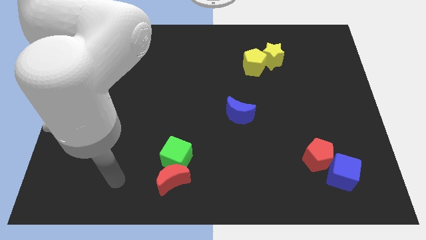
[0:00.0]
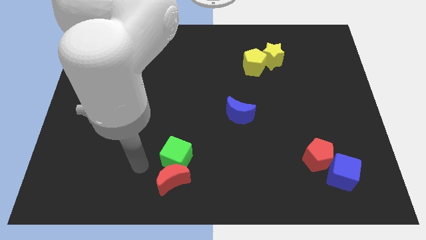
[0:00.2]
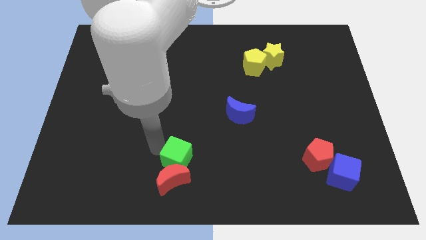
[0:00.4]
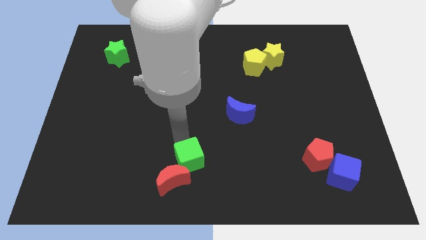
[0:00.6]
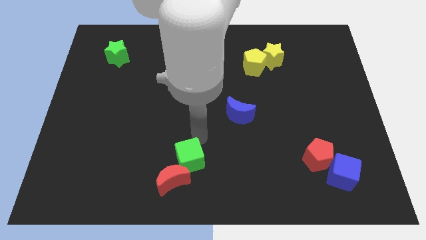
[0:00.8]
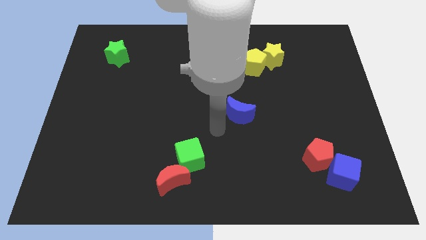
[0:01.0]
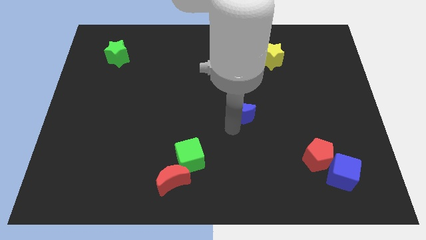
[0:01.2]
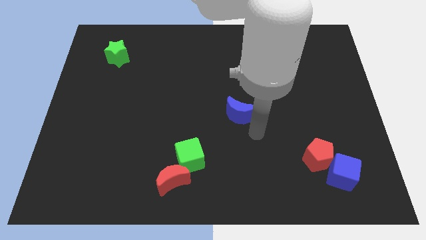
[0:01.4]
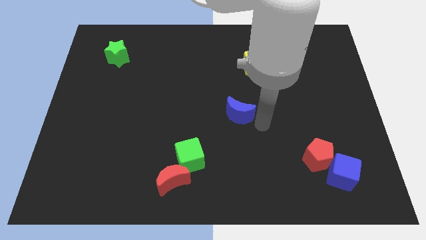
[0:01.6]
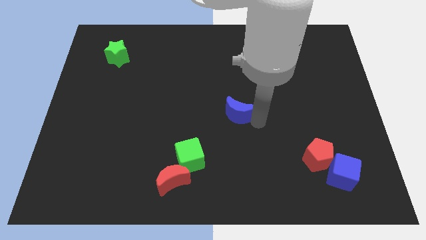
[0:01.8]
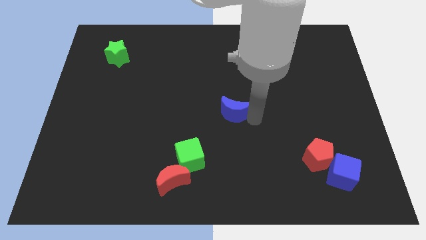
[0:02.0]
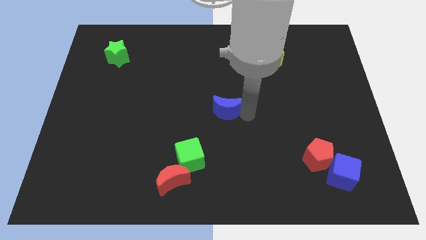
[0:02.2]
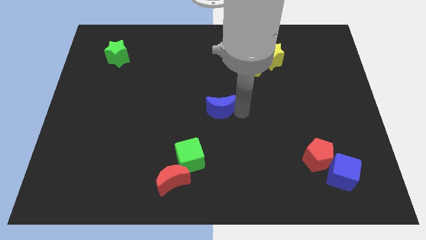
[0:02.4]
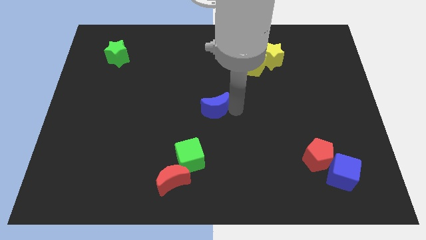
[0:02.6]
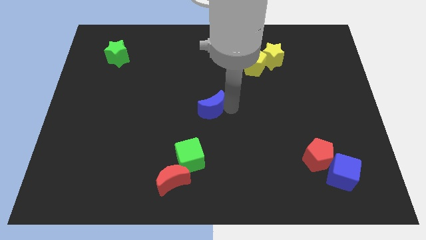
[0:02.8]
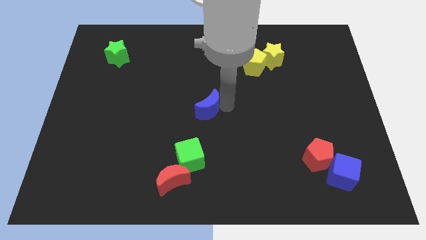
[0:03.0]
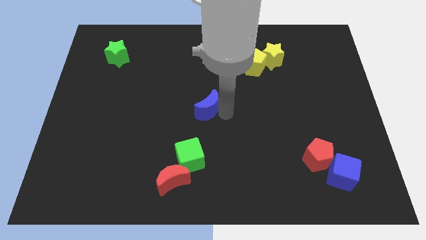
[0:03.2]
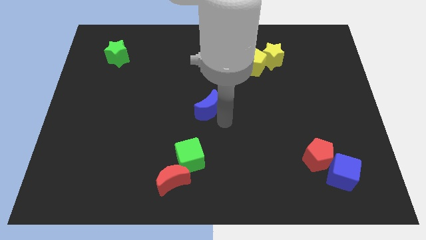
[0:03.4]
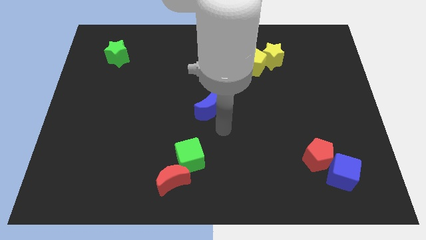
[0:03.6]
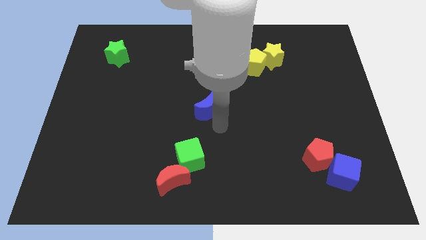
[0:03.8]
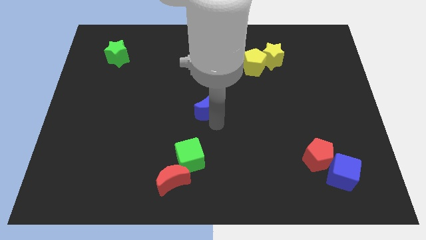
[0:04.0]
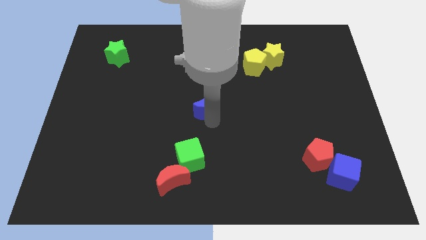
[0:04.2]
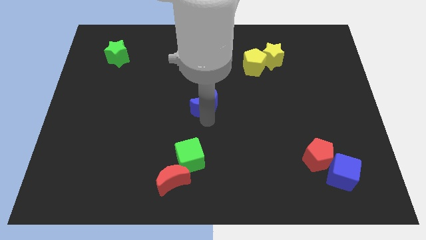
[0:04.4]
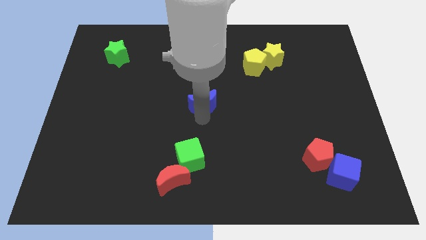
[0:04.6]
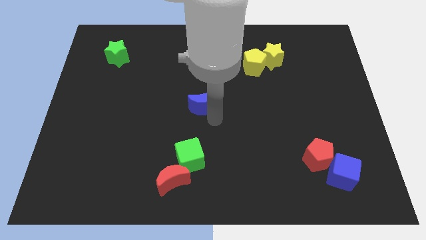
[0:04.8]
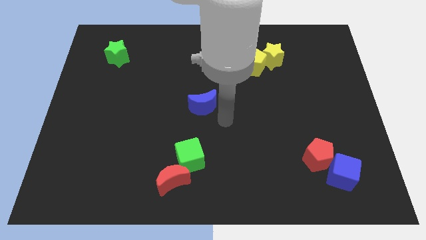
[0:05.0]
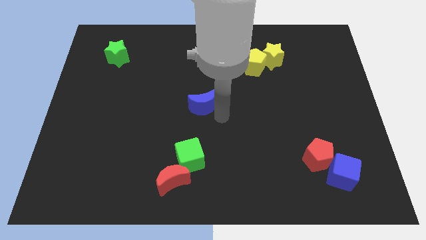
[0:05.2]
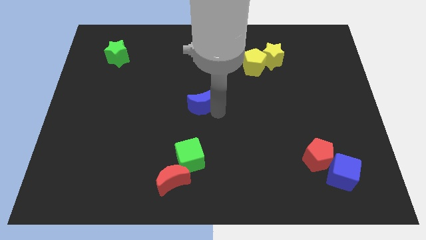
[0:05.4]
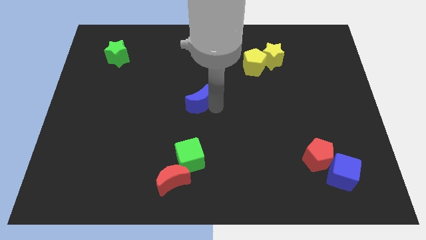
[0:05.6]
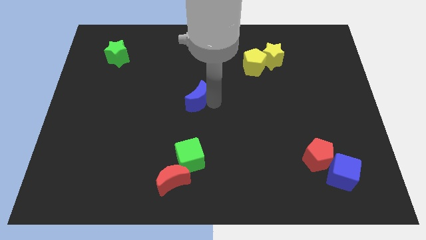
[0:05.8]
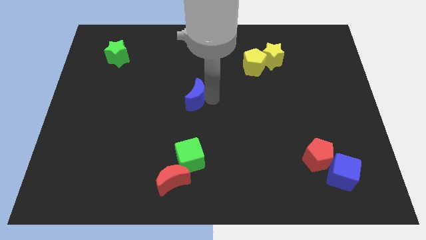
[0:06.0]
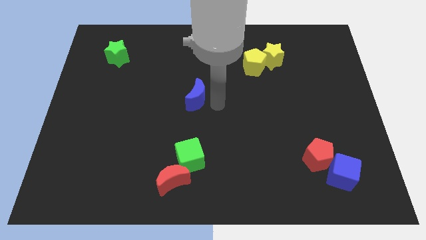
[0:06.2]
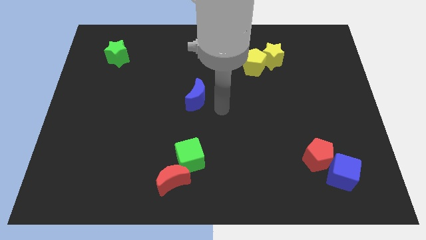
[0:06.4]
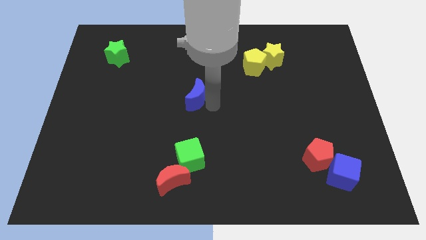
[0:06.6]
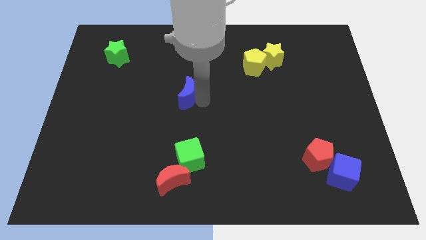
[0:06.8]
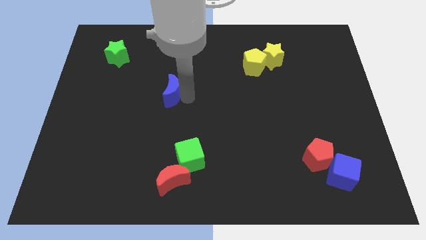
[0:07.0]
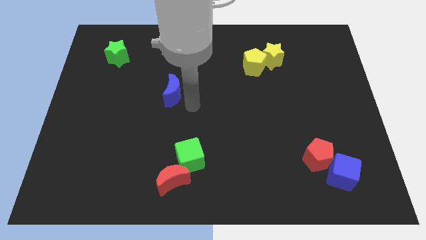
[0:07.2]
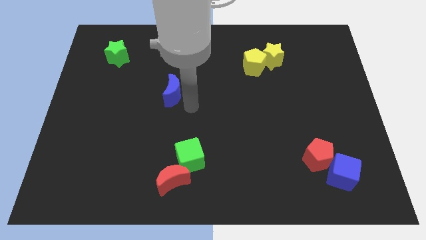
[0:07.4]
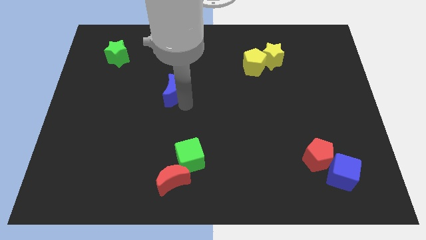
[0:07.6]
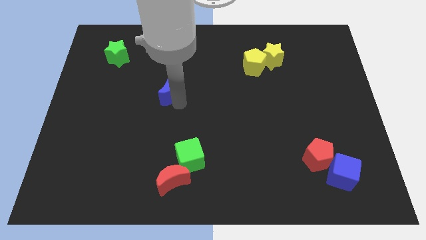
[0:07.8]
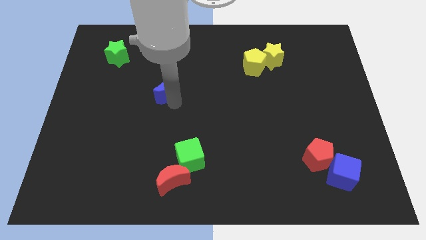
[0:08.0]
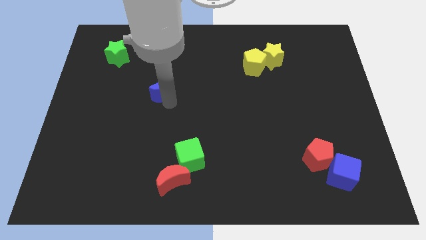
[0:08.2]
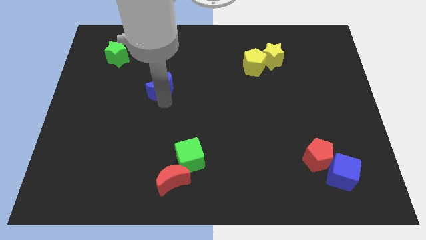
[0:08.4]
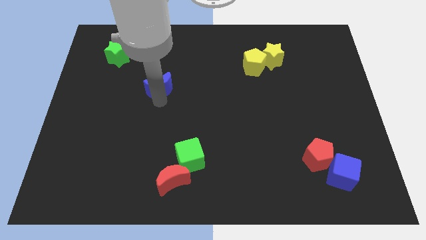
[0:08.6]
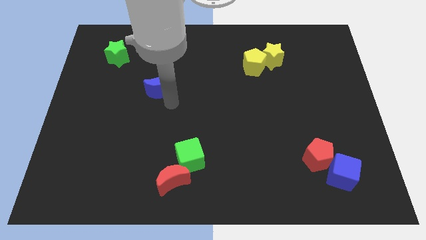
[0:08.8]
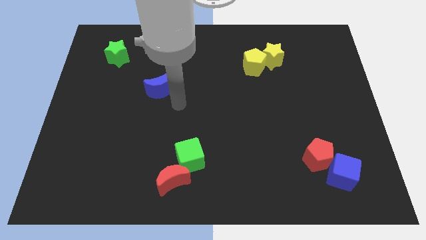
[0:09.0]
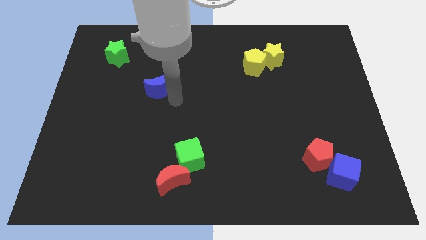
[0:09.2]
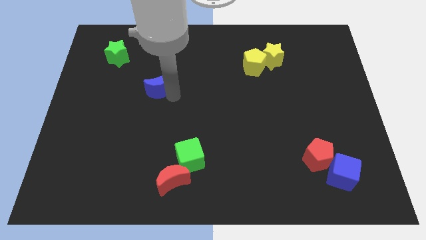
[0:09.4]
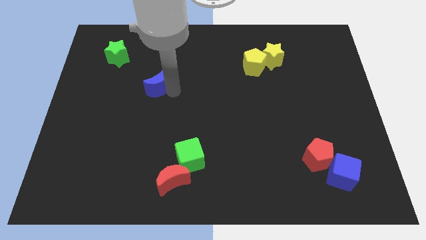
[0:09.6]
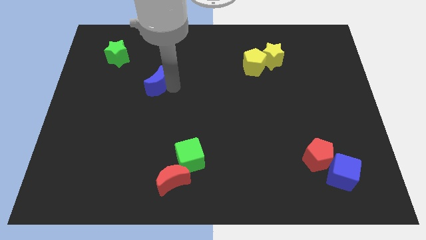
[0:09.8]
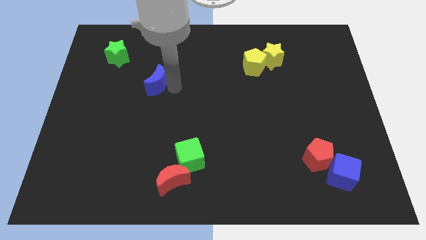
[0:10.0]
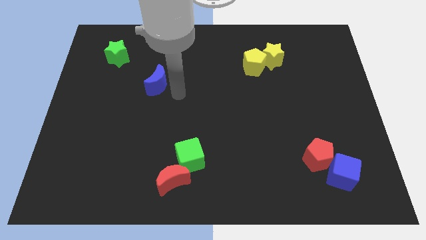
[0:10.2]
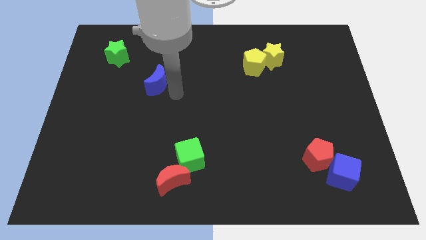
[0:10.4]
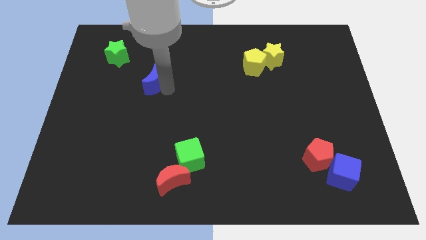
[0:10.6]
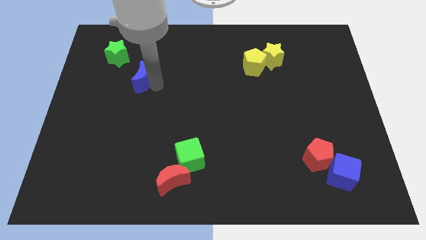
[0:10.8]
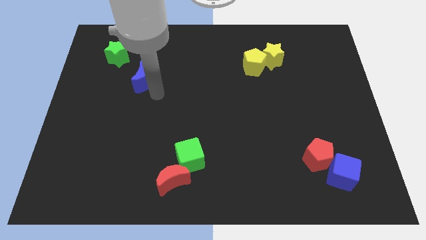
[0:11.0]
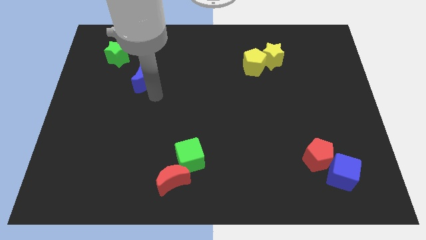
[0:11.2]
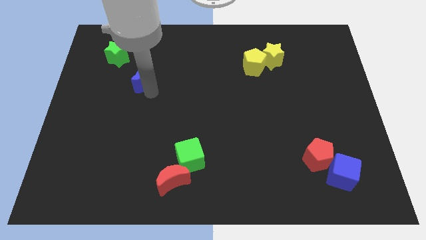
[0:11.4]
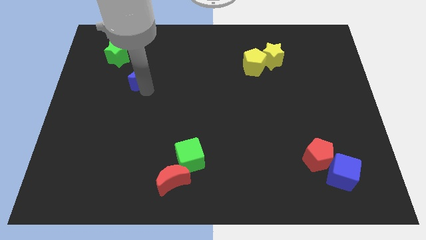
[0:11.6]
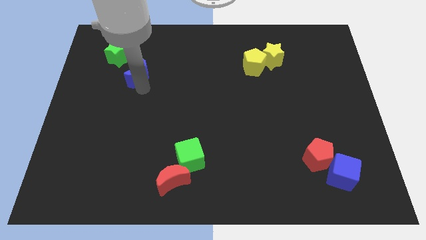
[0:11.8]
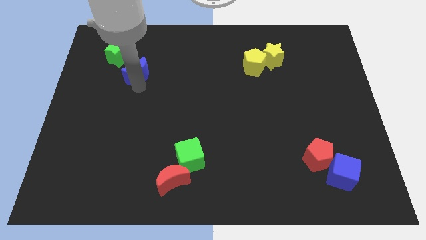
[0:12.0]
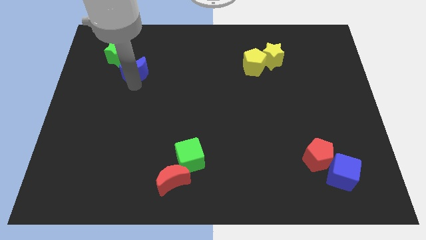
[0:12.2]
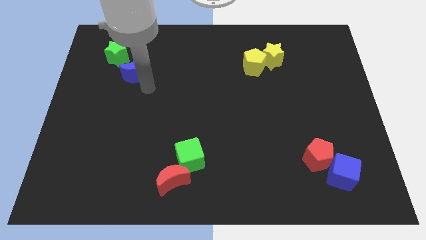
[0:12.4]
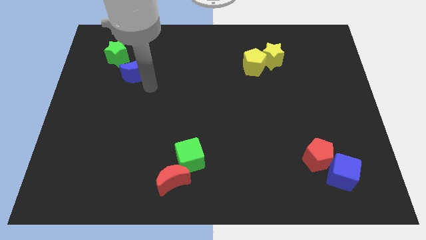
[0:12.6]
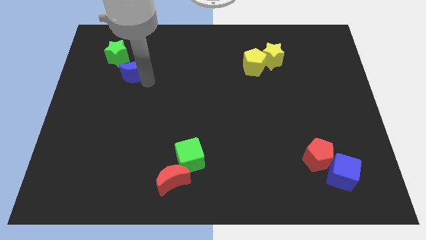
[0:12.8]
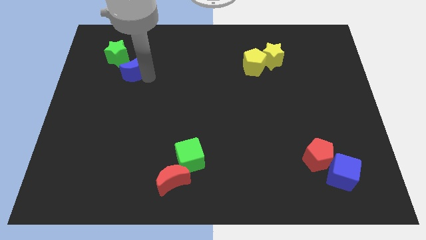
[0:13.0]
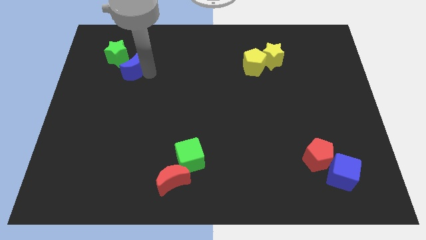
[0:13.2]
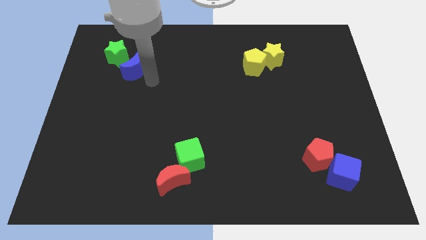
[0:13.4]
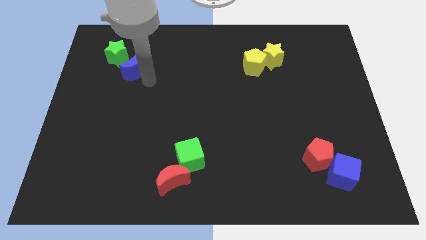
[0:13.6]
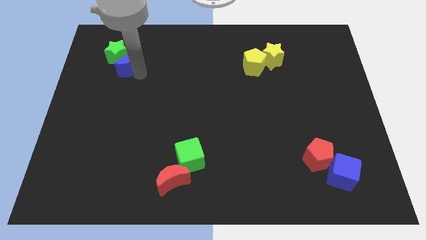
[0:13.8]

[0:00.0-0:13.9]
move the blue moon to the green star

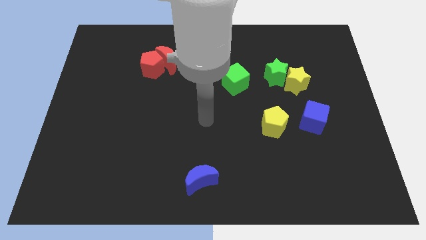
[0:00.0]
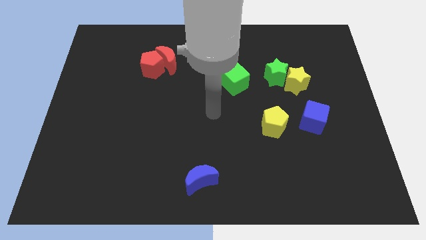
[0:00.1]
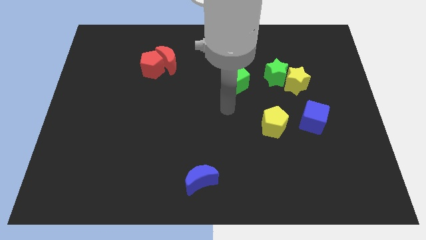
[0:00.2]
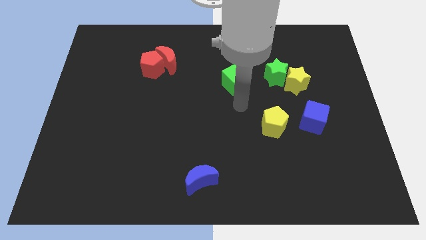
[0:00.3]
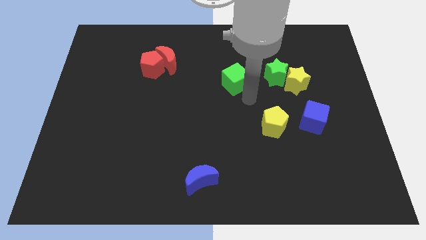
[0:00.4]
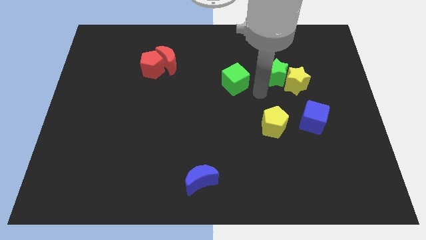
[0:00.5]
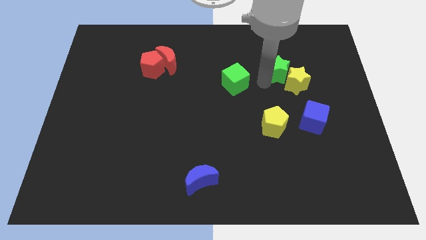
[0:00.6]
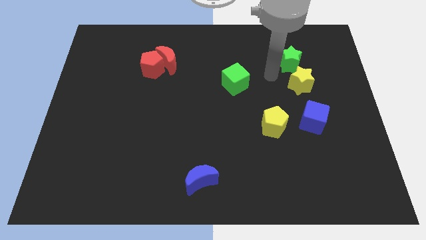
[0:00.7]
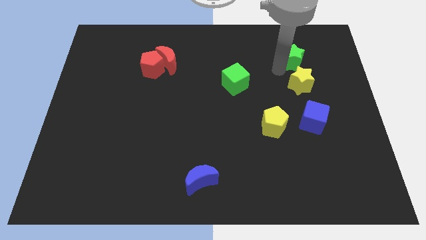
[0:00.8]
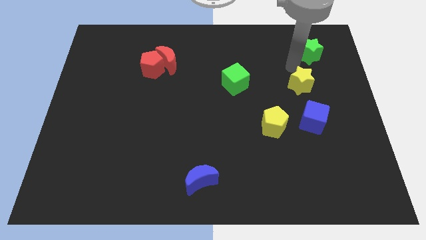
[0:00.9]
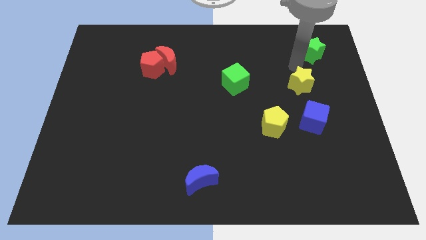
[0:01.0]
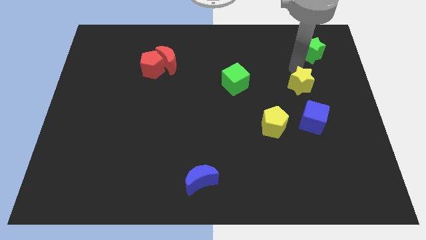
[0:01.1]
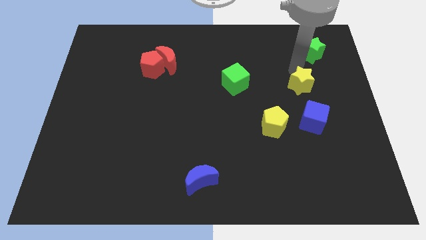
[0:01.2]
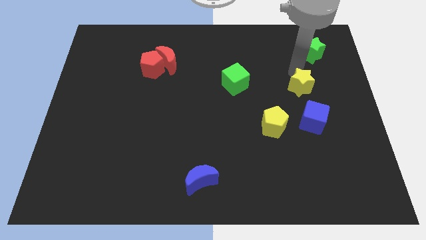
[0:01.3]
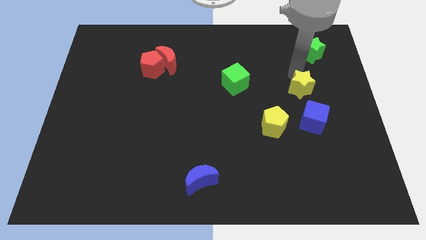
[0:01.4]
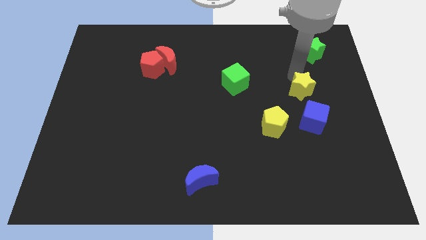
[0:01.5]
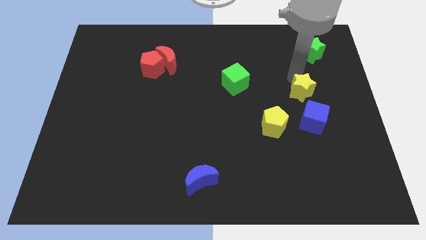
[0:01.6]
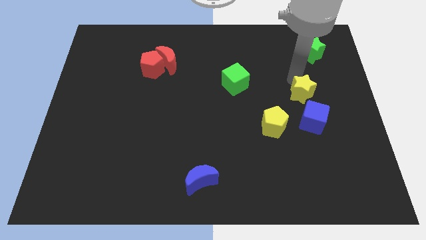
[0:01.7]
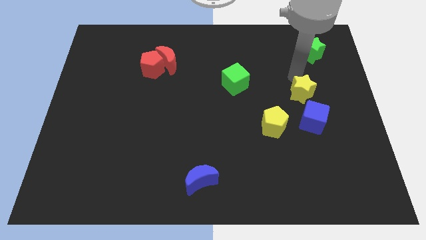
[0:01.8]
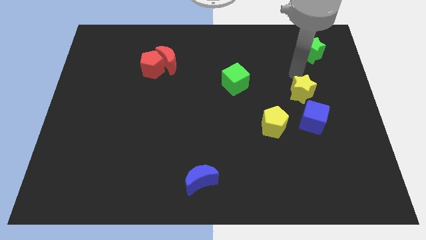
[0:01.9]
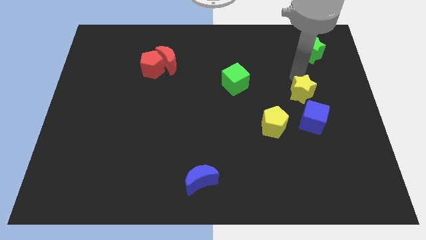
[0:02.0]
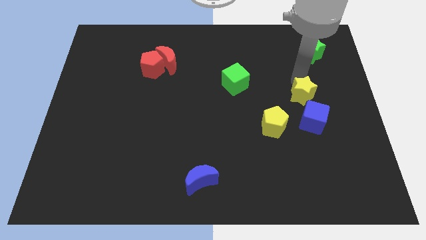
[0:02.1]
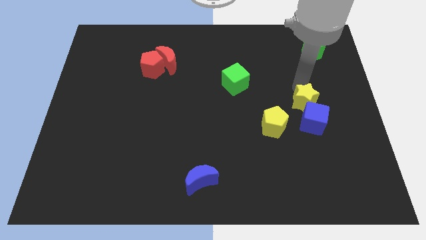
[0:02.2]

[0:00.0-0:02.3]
move the yellow star close to the blue cube
